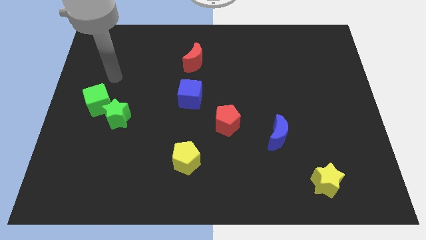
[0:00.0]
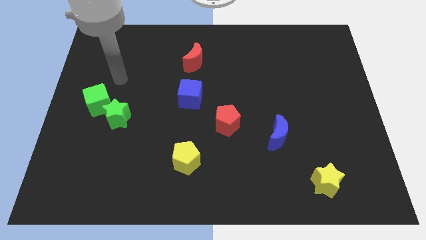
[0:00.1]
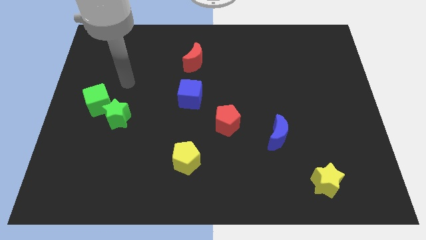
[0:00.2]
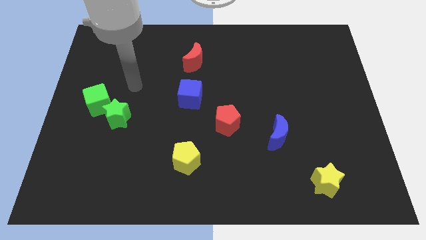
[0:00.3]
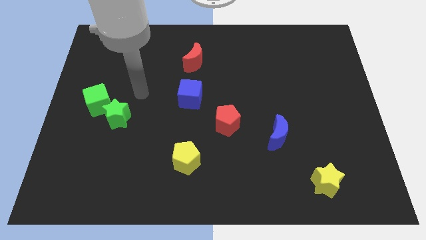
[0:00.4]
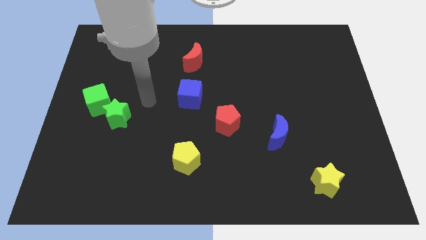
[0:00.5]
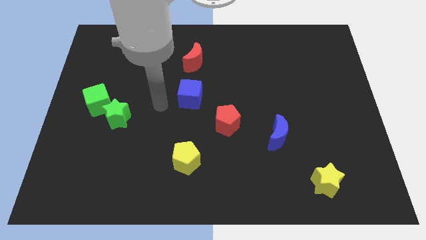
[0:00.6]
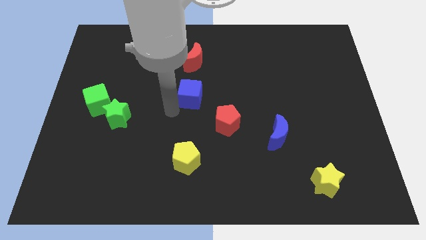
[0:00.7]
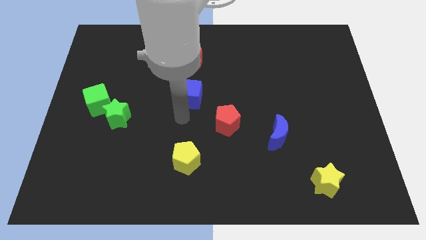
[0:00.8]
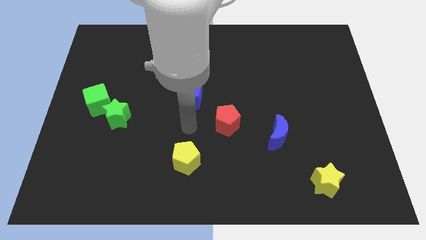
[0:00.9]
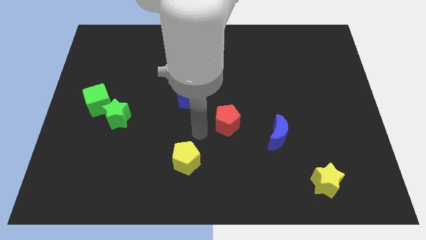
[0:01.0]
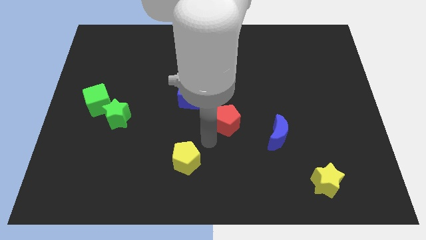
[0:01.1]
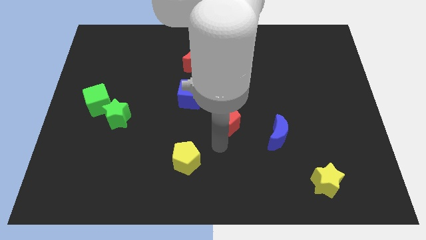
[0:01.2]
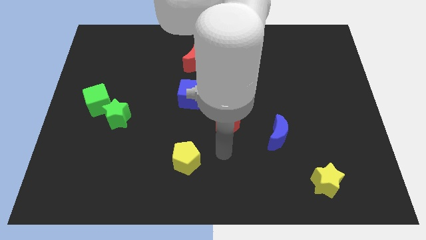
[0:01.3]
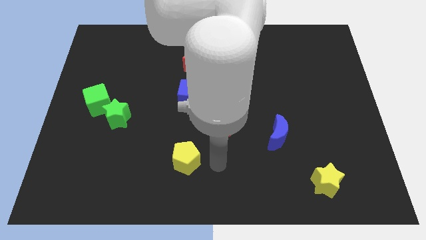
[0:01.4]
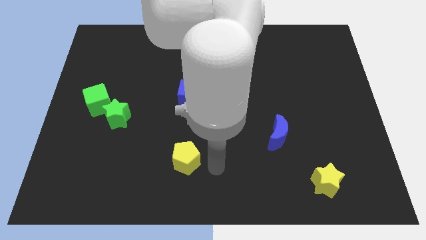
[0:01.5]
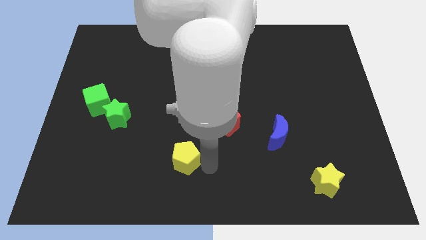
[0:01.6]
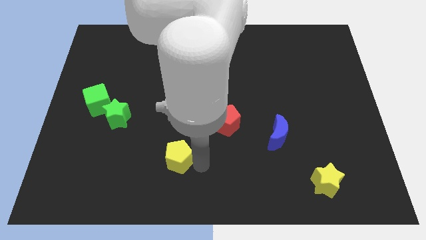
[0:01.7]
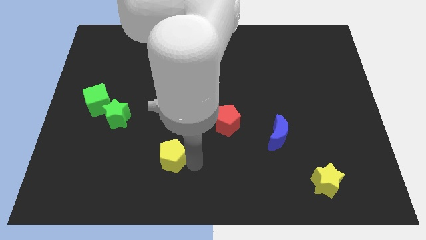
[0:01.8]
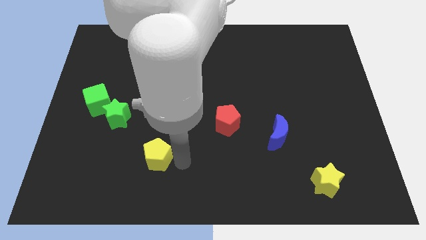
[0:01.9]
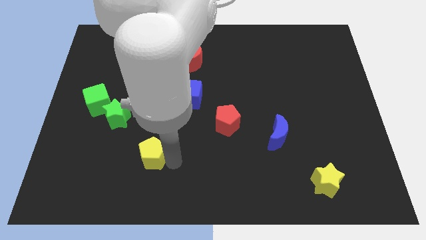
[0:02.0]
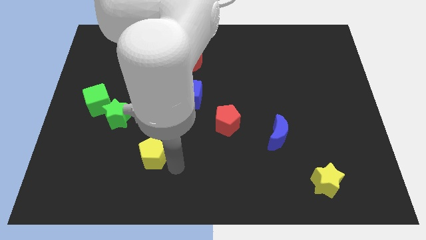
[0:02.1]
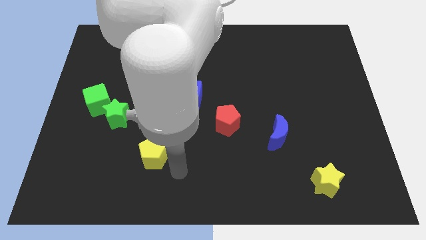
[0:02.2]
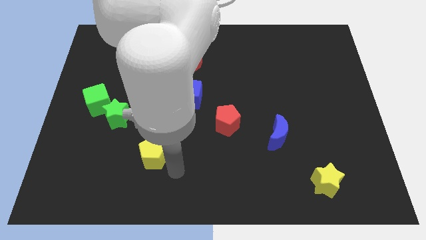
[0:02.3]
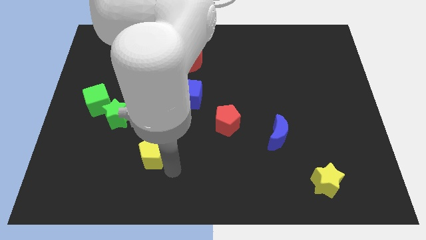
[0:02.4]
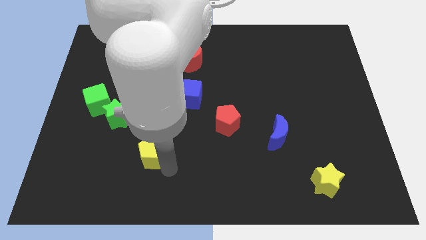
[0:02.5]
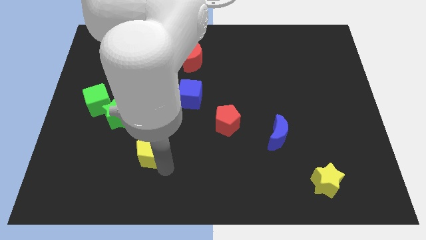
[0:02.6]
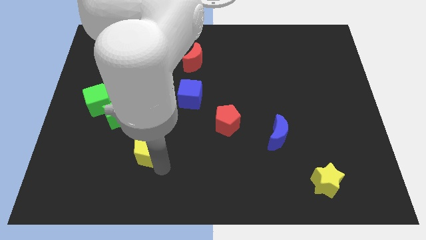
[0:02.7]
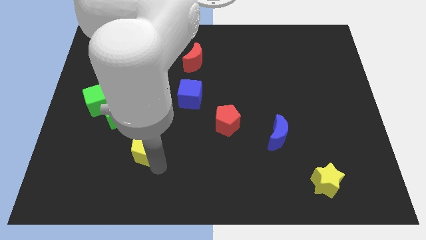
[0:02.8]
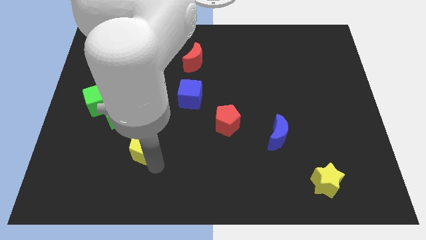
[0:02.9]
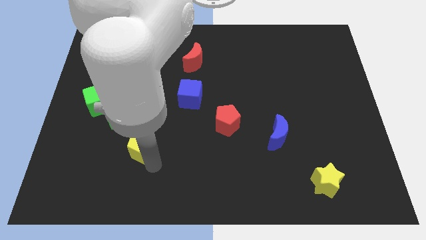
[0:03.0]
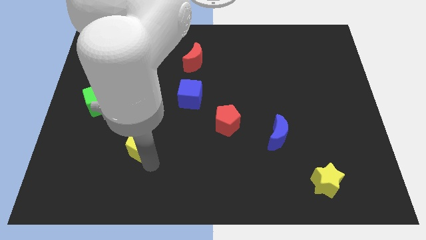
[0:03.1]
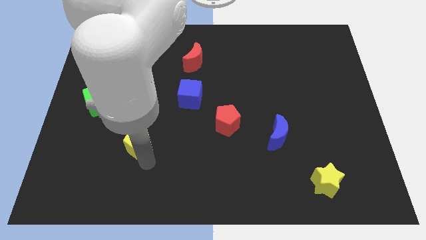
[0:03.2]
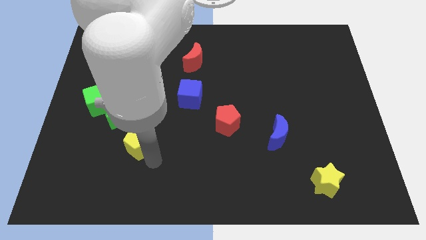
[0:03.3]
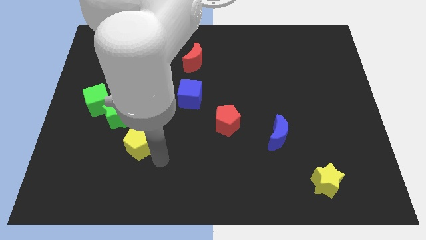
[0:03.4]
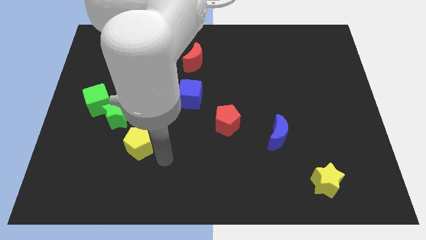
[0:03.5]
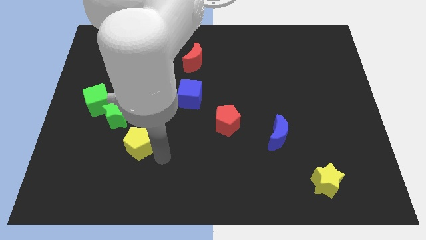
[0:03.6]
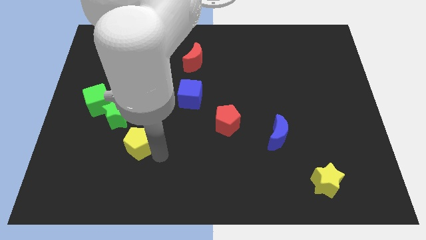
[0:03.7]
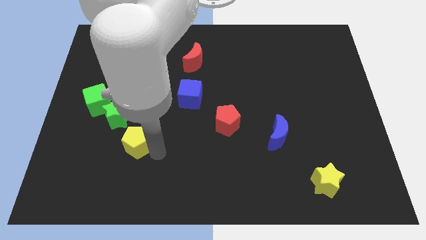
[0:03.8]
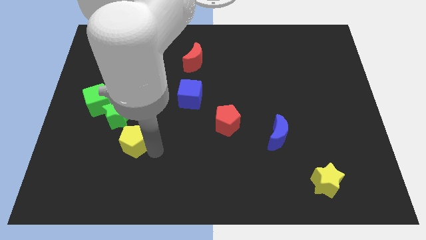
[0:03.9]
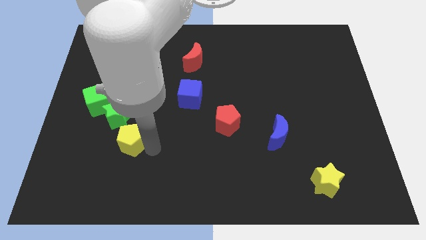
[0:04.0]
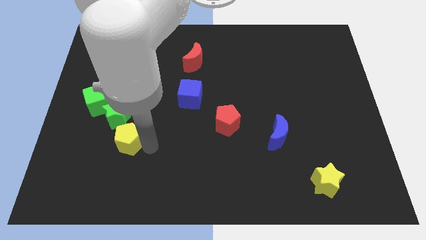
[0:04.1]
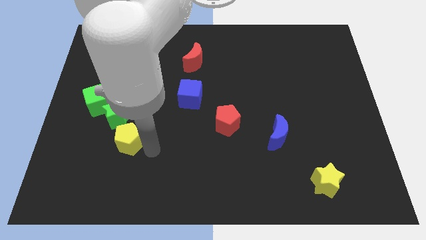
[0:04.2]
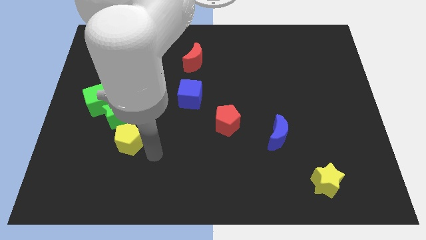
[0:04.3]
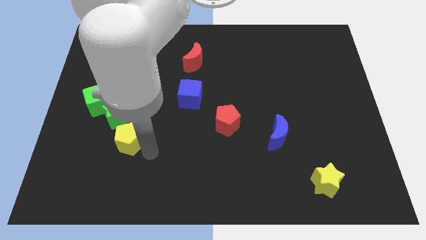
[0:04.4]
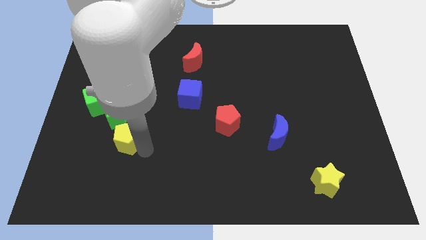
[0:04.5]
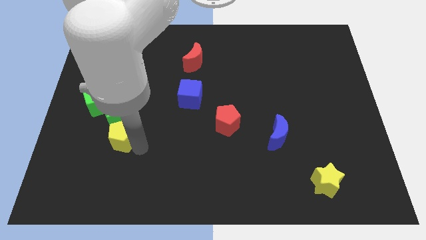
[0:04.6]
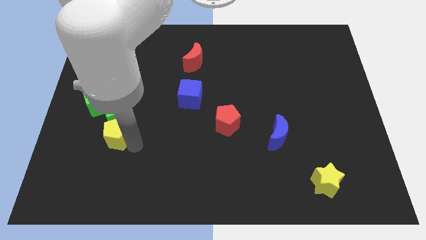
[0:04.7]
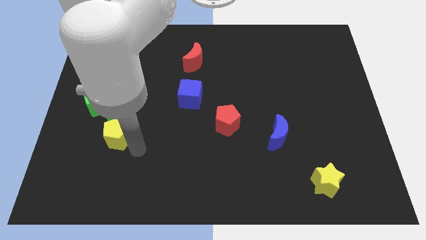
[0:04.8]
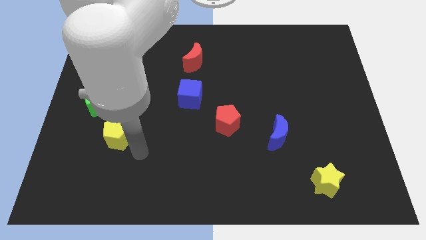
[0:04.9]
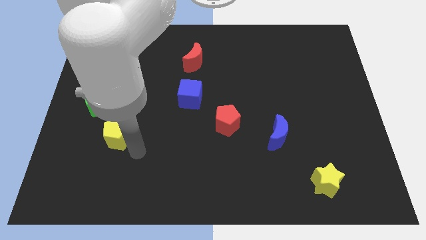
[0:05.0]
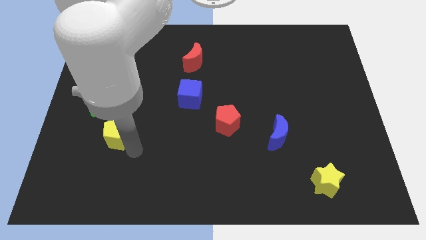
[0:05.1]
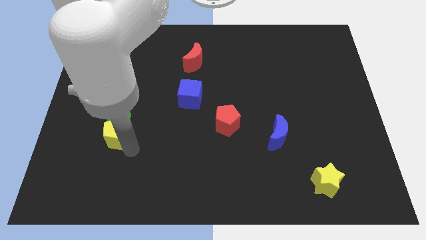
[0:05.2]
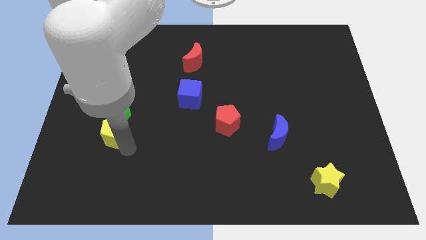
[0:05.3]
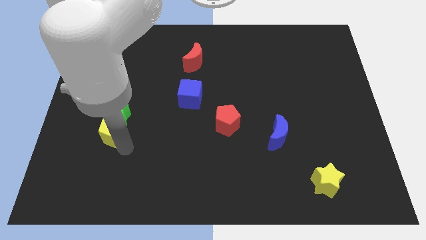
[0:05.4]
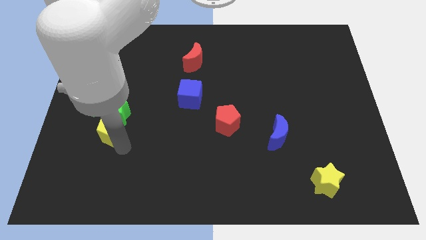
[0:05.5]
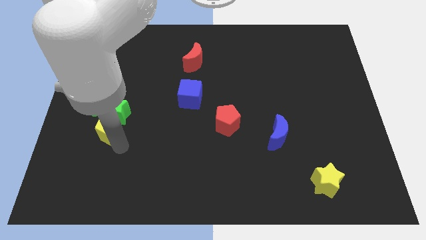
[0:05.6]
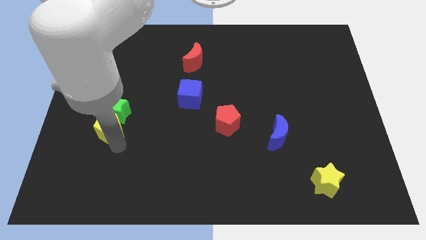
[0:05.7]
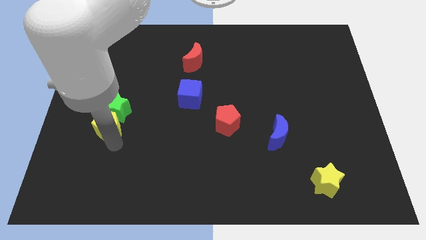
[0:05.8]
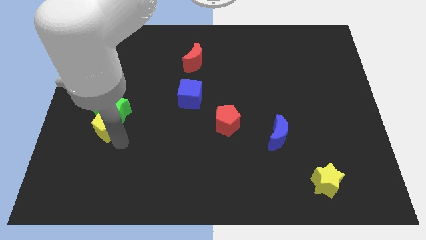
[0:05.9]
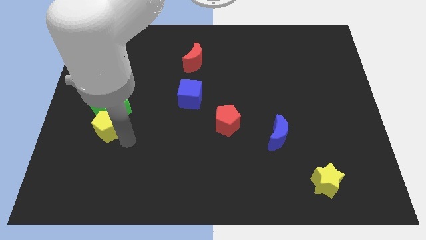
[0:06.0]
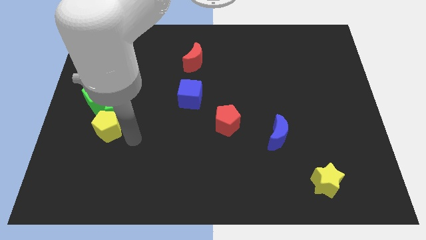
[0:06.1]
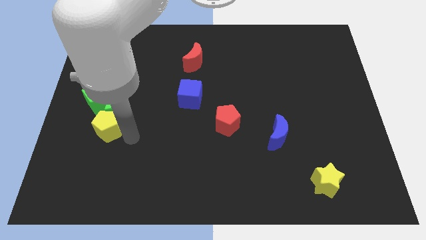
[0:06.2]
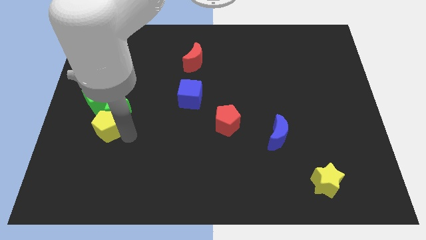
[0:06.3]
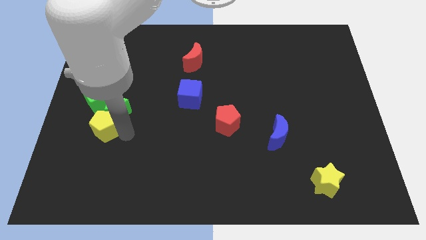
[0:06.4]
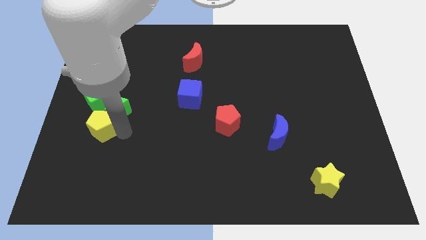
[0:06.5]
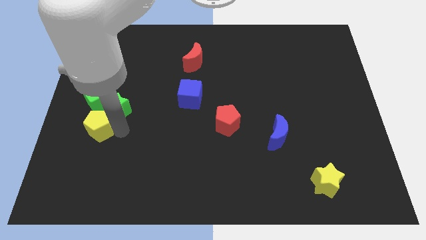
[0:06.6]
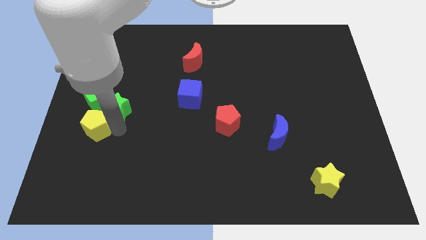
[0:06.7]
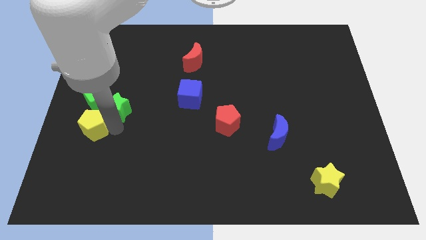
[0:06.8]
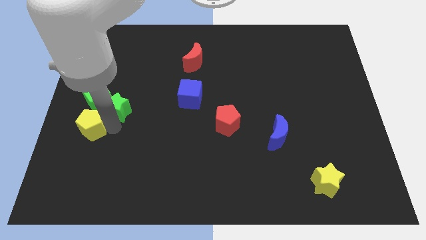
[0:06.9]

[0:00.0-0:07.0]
slide the yellow pentagon to the left side of the board

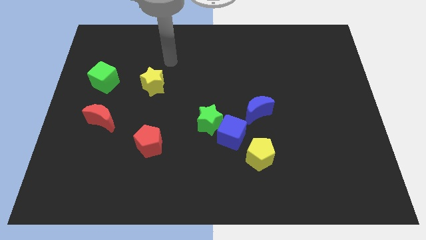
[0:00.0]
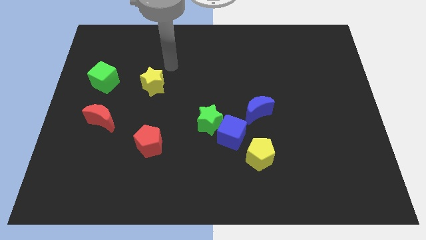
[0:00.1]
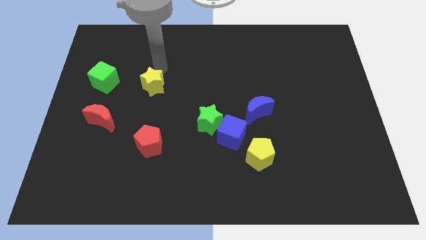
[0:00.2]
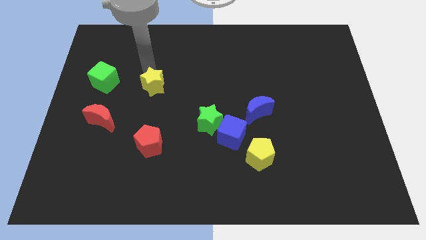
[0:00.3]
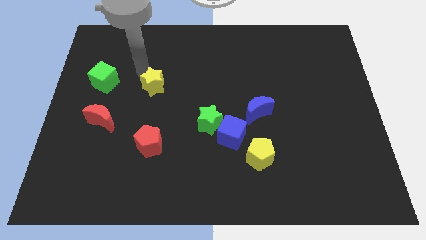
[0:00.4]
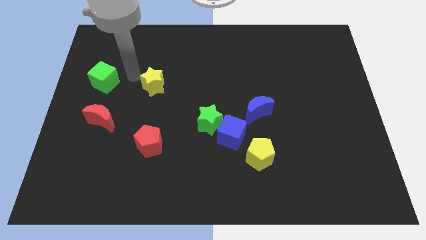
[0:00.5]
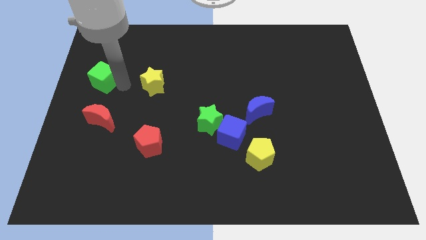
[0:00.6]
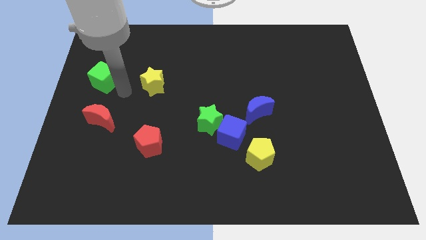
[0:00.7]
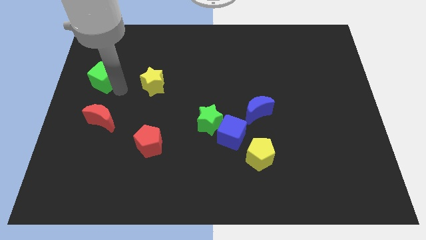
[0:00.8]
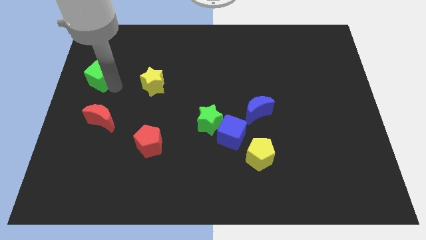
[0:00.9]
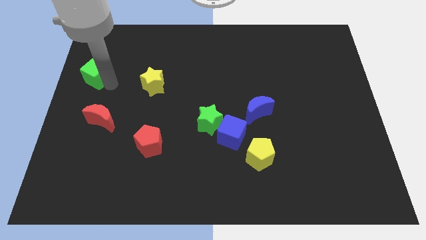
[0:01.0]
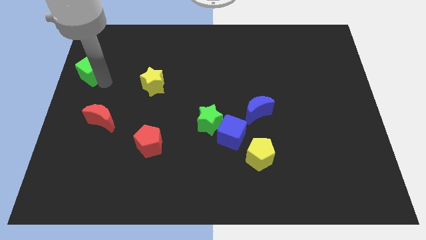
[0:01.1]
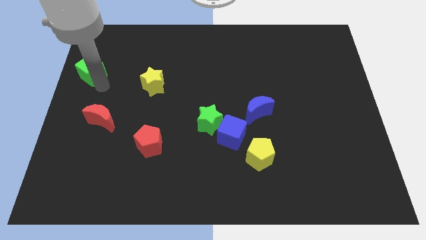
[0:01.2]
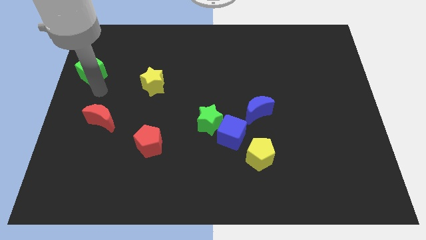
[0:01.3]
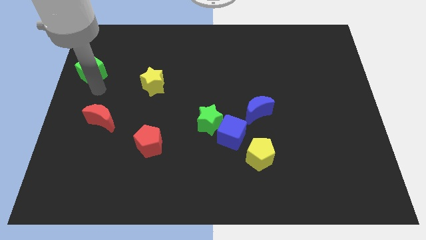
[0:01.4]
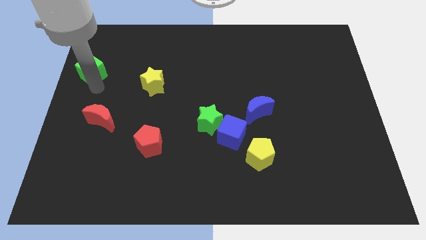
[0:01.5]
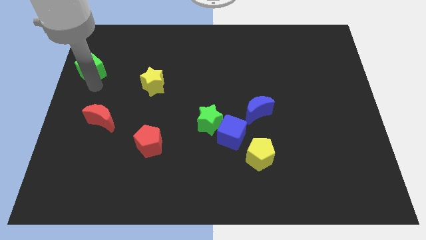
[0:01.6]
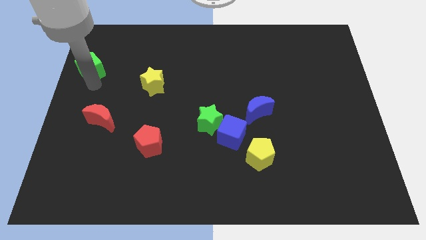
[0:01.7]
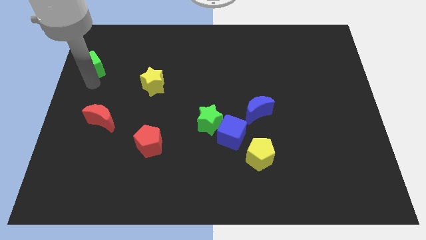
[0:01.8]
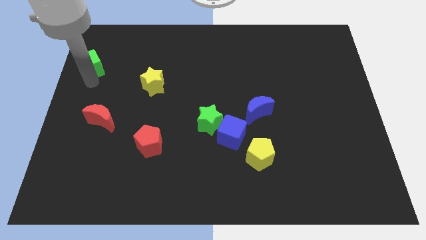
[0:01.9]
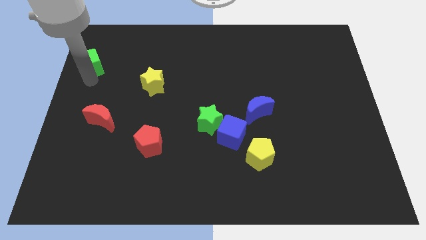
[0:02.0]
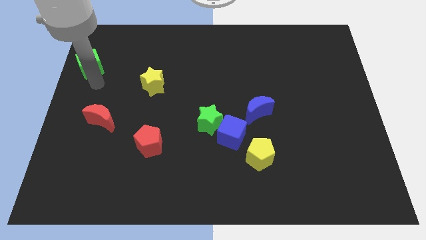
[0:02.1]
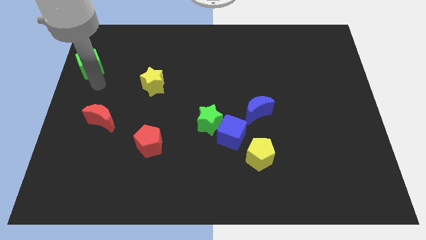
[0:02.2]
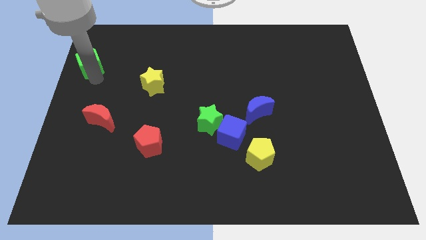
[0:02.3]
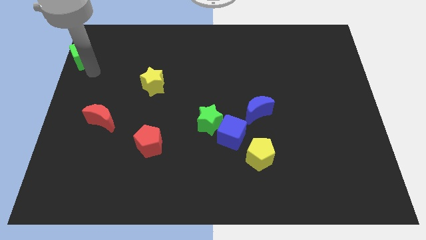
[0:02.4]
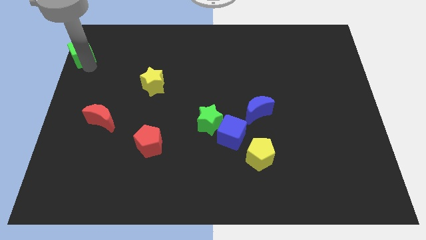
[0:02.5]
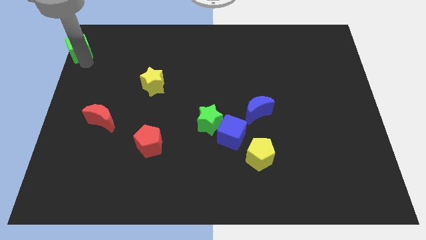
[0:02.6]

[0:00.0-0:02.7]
put the green cube to the top left
